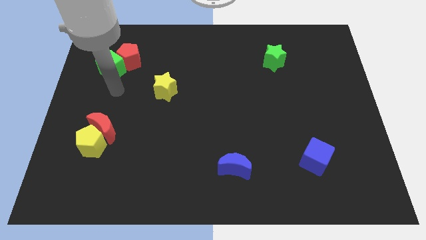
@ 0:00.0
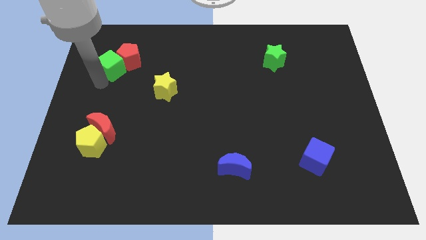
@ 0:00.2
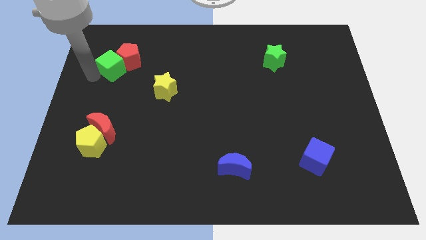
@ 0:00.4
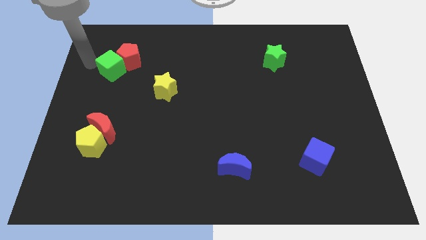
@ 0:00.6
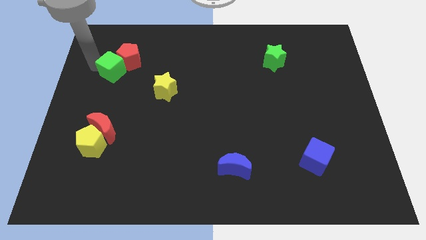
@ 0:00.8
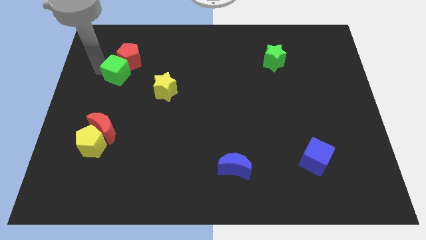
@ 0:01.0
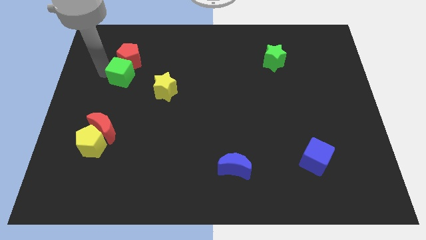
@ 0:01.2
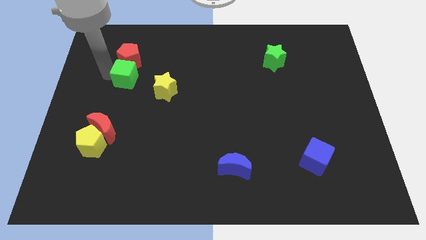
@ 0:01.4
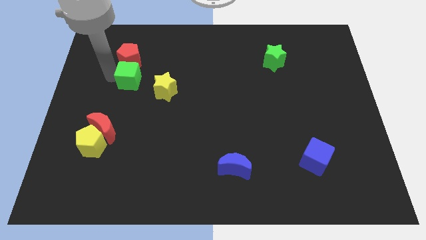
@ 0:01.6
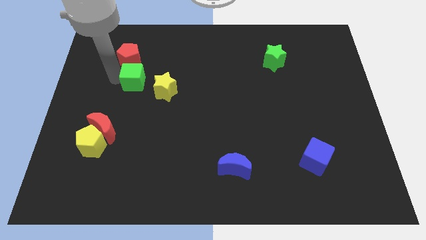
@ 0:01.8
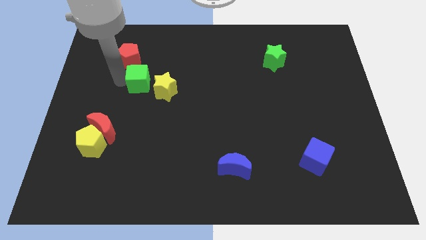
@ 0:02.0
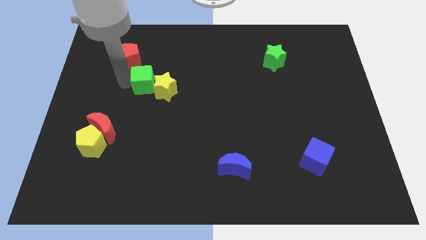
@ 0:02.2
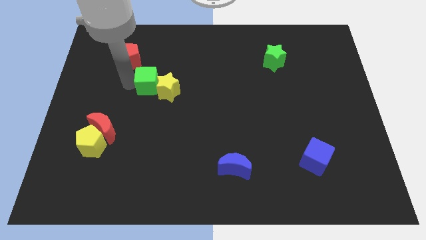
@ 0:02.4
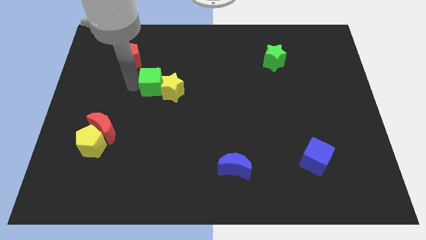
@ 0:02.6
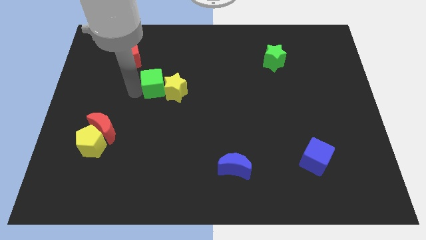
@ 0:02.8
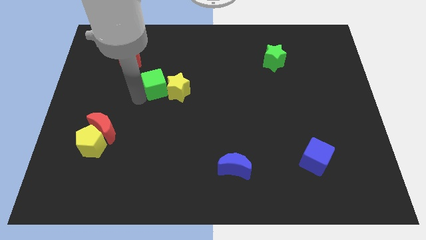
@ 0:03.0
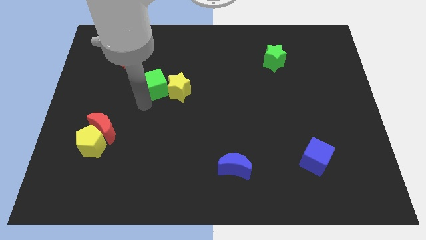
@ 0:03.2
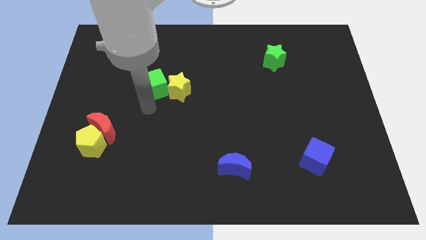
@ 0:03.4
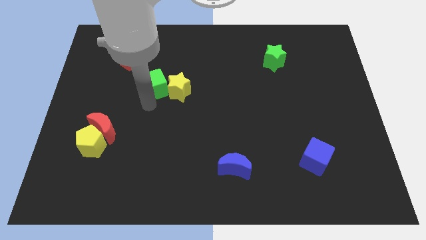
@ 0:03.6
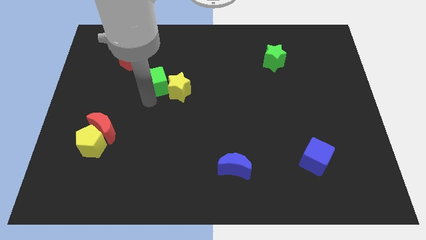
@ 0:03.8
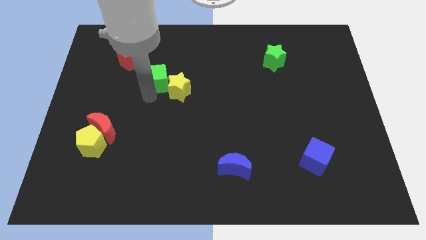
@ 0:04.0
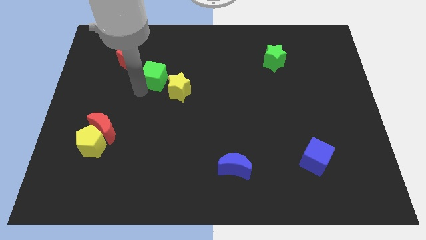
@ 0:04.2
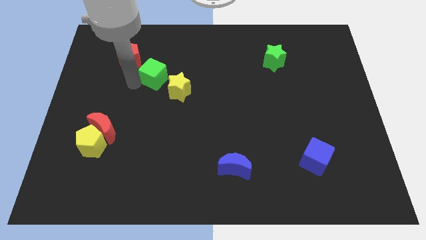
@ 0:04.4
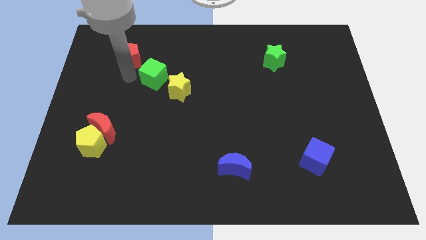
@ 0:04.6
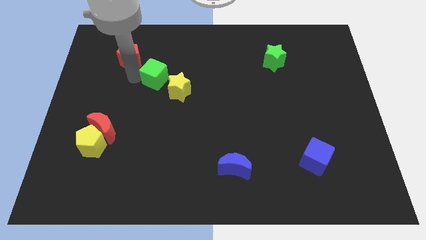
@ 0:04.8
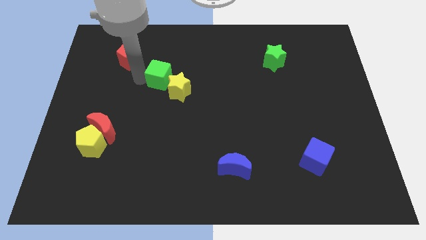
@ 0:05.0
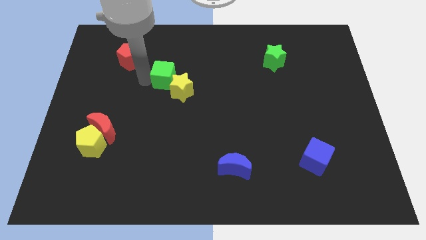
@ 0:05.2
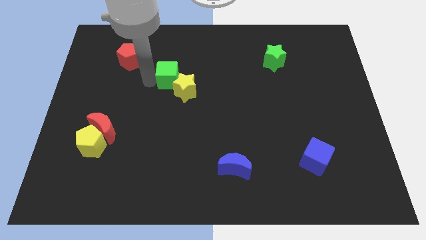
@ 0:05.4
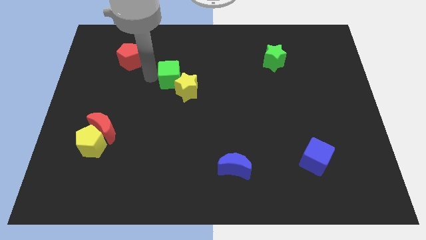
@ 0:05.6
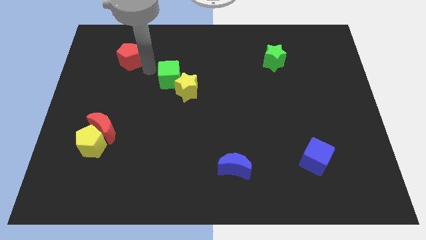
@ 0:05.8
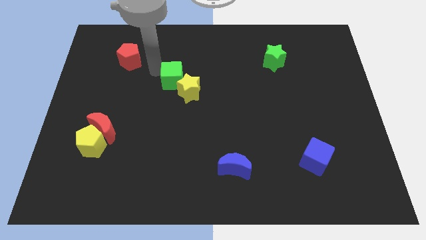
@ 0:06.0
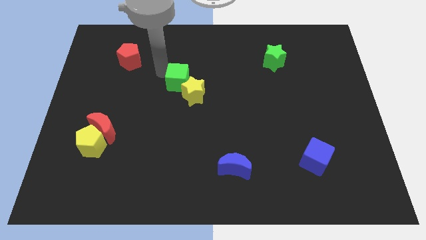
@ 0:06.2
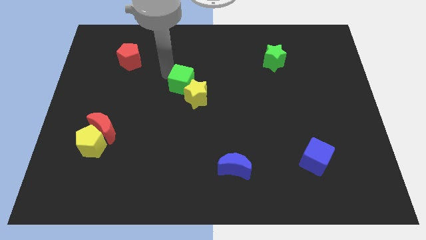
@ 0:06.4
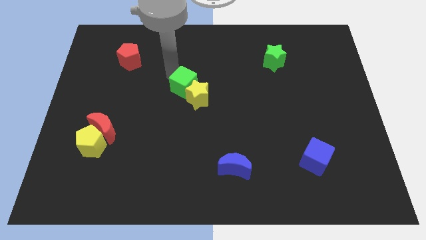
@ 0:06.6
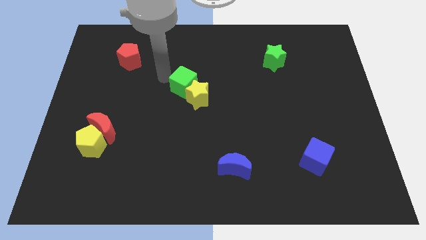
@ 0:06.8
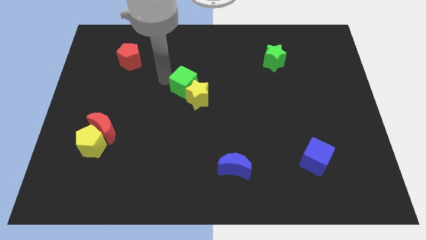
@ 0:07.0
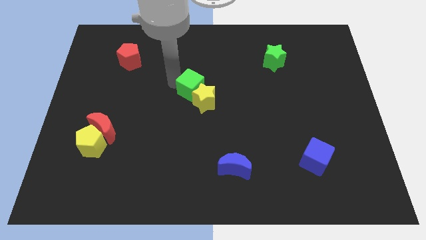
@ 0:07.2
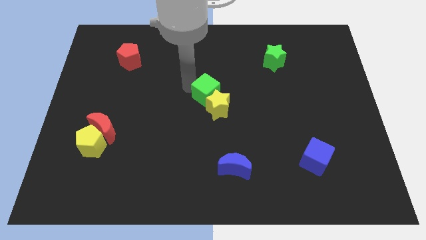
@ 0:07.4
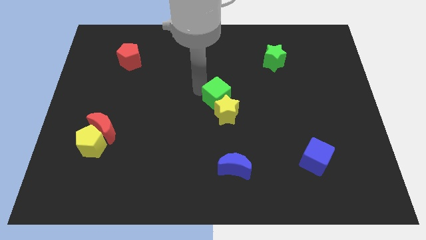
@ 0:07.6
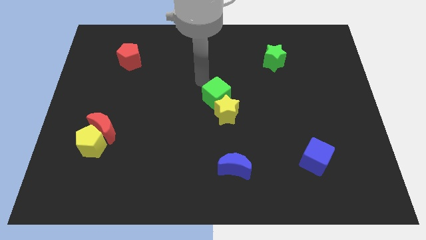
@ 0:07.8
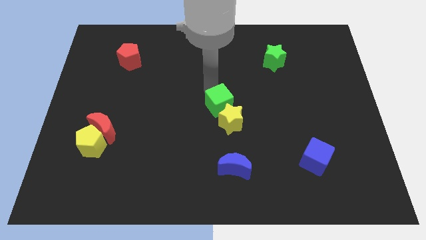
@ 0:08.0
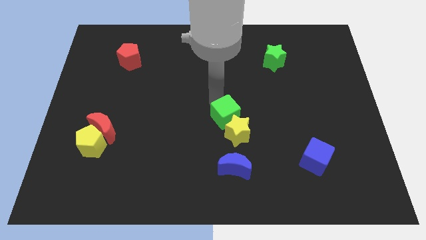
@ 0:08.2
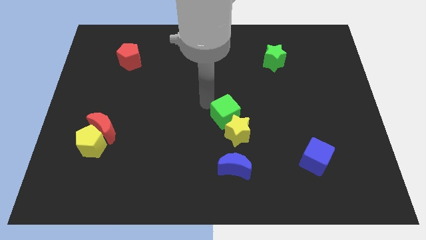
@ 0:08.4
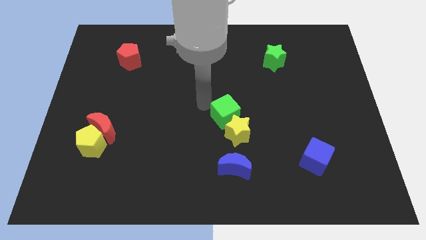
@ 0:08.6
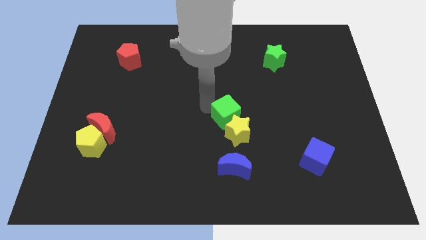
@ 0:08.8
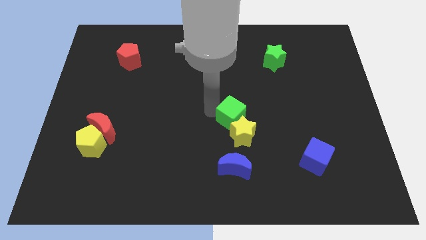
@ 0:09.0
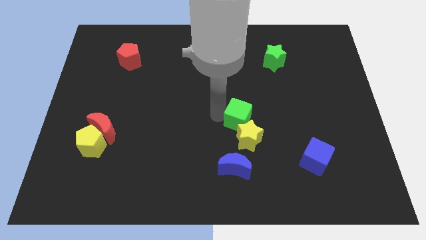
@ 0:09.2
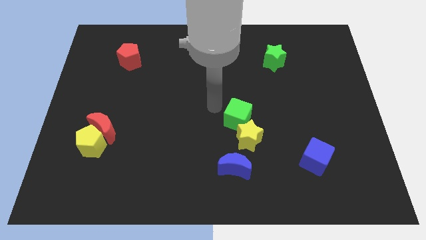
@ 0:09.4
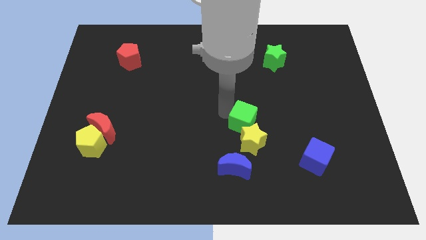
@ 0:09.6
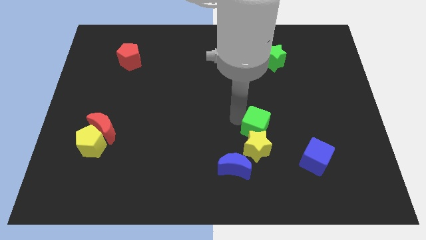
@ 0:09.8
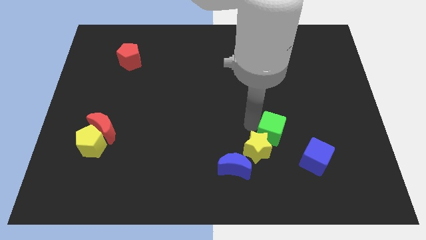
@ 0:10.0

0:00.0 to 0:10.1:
put the green cube to the top left of the blue cube

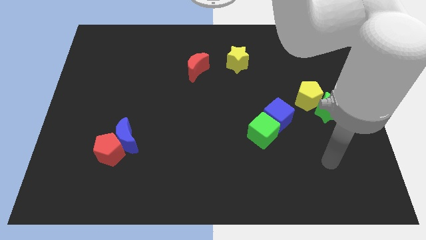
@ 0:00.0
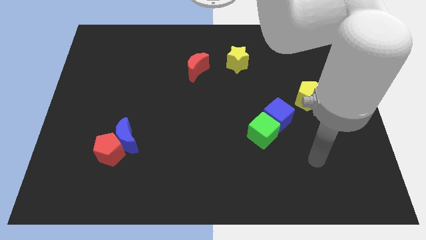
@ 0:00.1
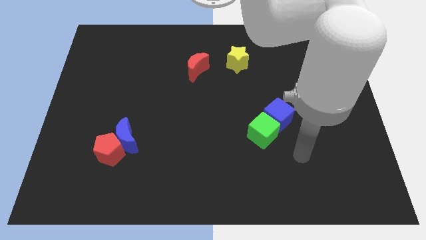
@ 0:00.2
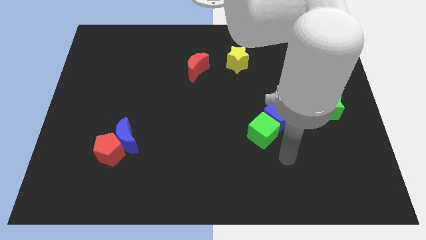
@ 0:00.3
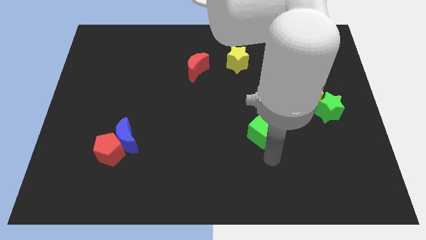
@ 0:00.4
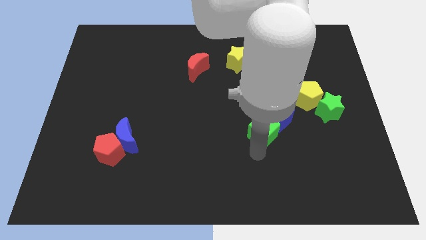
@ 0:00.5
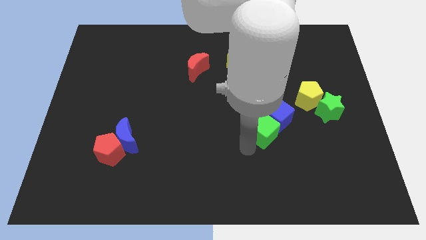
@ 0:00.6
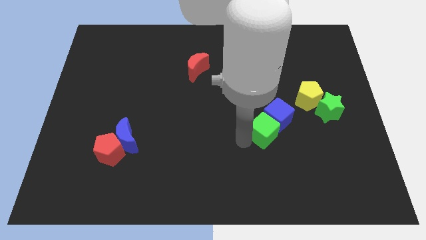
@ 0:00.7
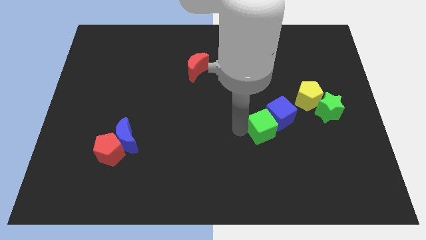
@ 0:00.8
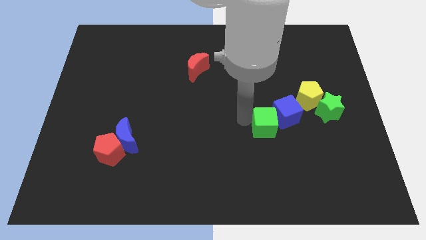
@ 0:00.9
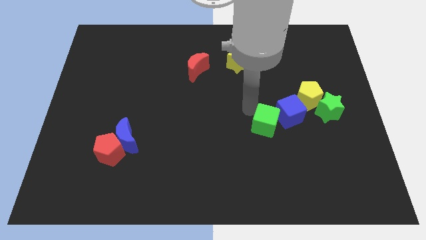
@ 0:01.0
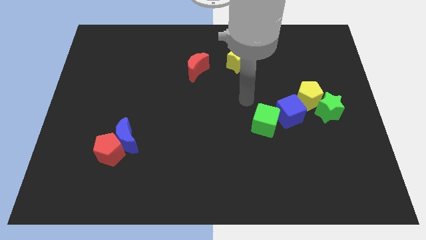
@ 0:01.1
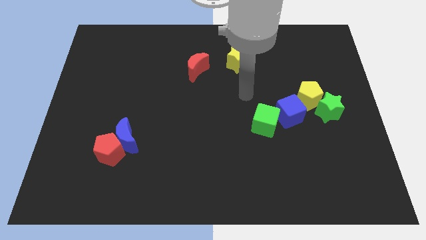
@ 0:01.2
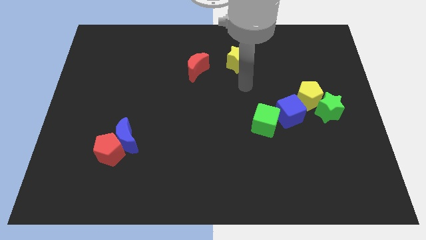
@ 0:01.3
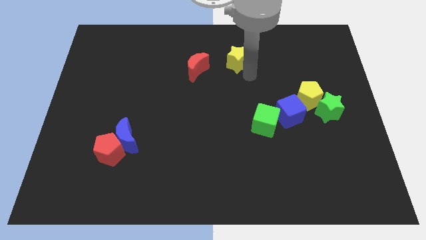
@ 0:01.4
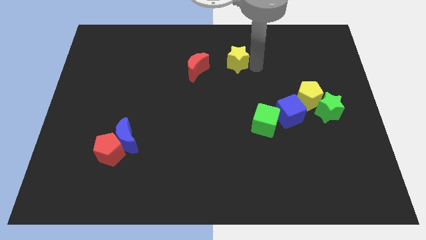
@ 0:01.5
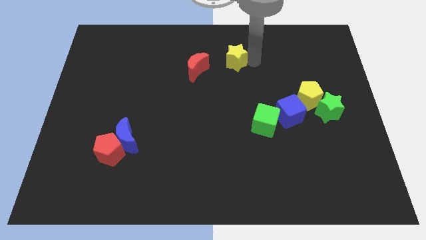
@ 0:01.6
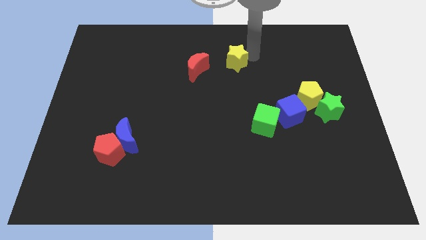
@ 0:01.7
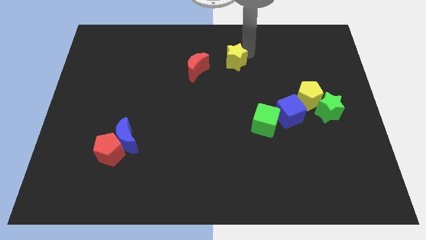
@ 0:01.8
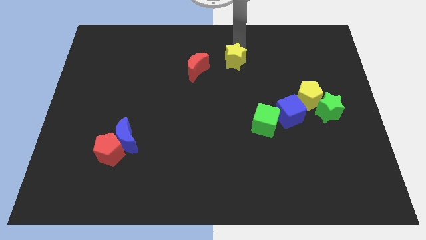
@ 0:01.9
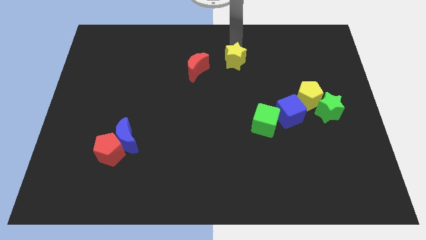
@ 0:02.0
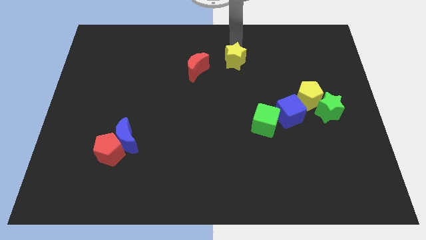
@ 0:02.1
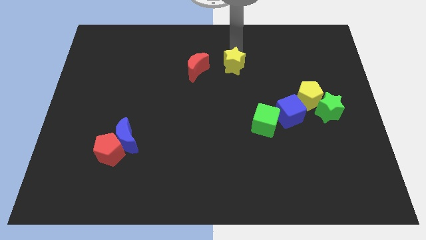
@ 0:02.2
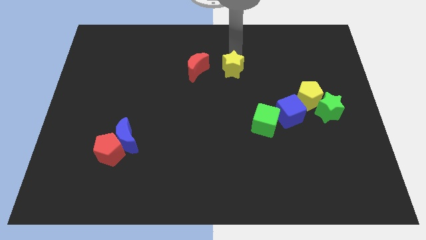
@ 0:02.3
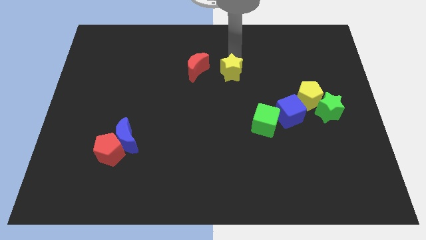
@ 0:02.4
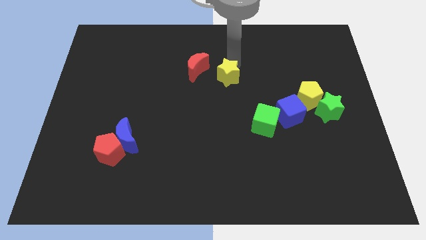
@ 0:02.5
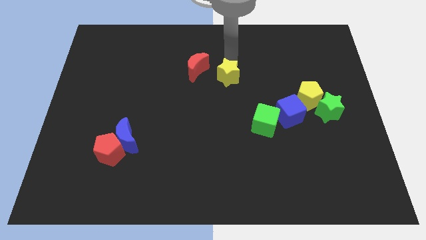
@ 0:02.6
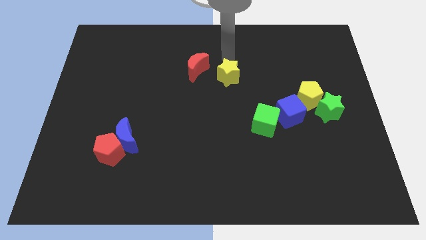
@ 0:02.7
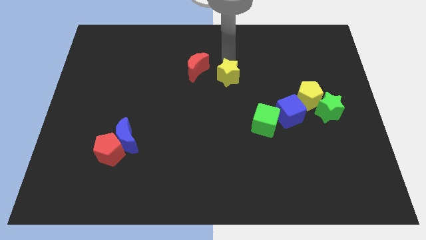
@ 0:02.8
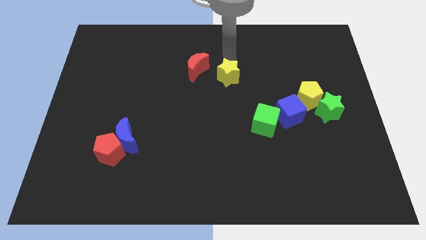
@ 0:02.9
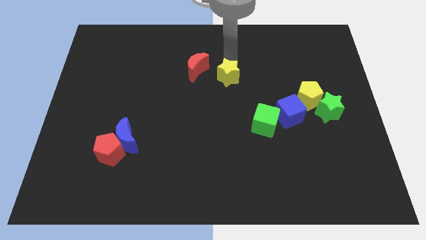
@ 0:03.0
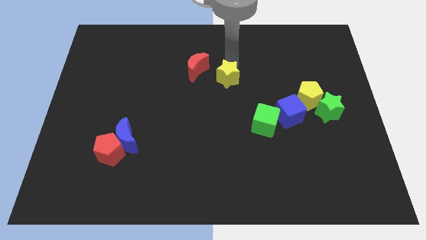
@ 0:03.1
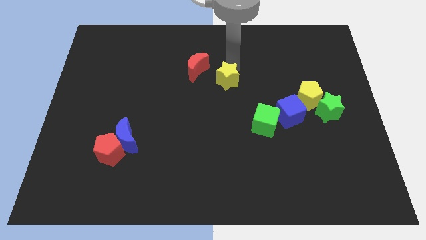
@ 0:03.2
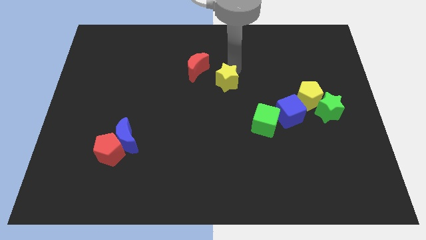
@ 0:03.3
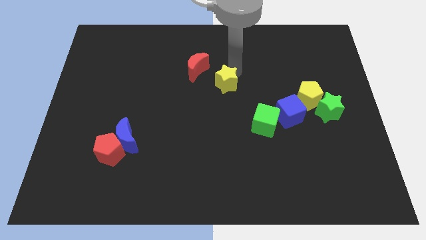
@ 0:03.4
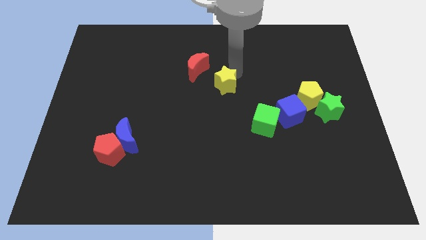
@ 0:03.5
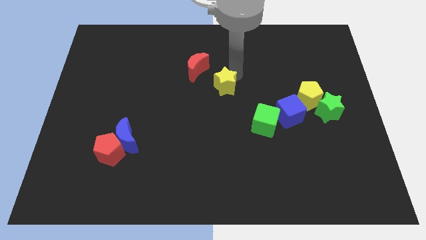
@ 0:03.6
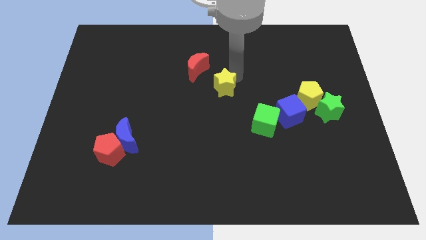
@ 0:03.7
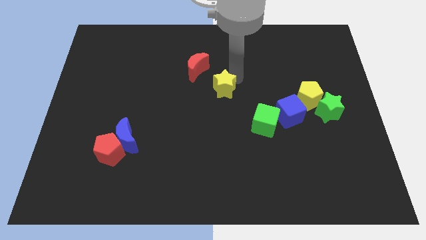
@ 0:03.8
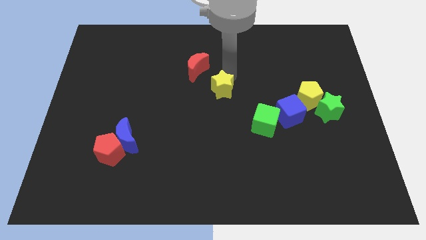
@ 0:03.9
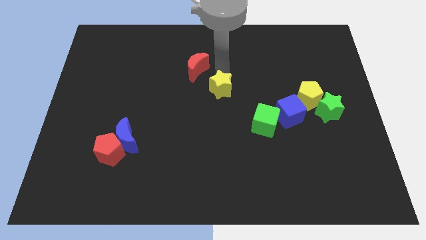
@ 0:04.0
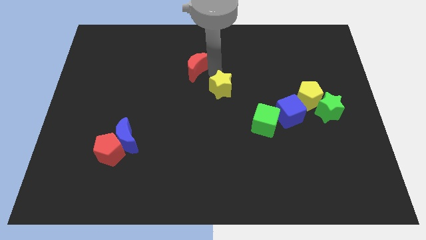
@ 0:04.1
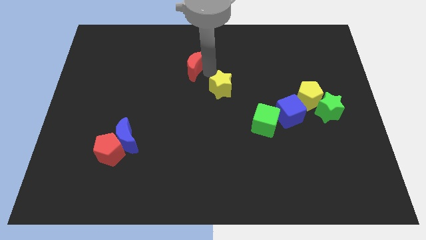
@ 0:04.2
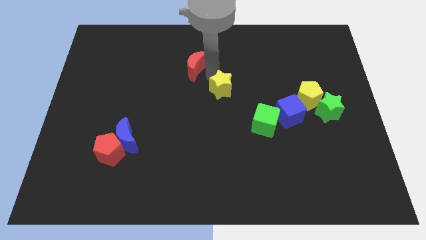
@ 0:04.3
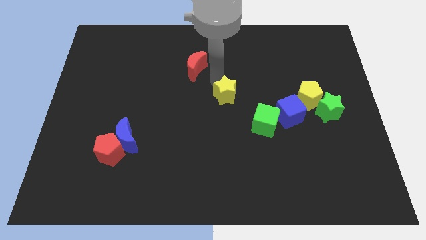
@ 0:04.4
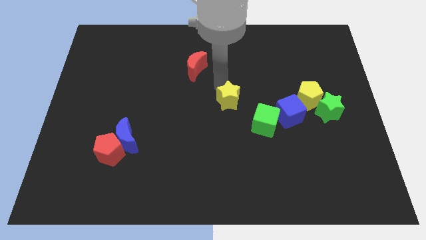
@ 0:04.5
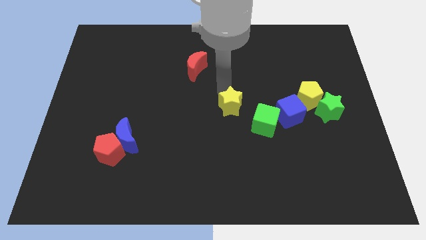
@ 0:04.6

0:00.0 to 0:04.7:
slide the yellow star to the left side of the blue cube
